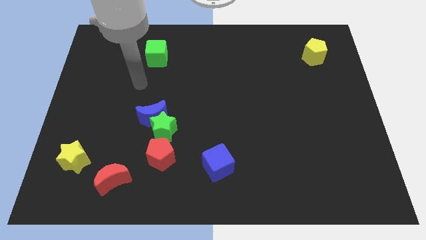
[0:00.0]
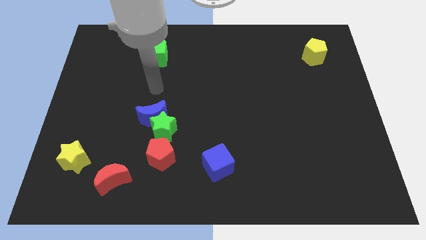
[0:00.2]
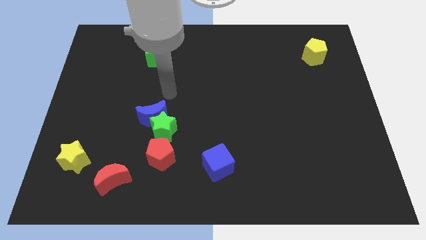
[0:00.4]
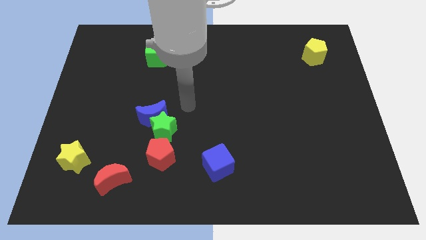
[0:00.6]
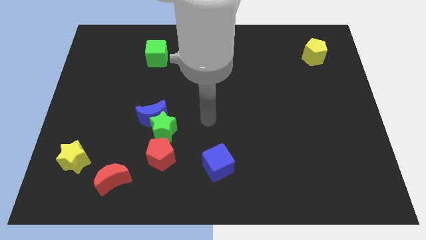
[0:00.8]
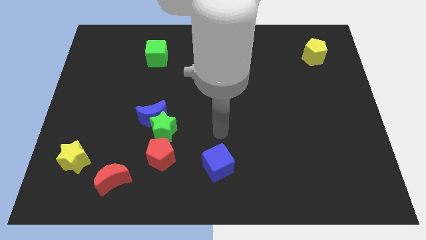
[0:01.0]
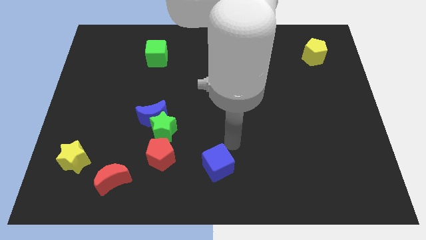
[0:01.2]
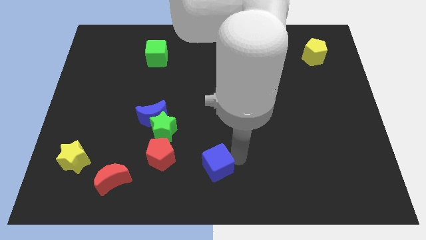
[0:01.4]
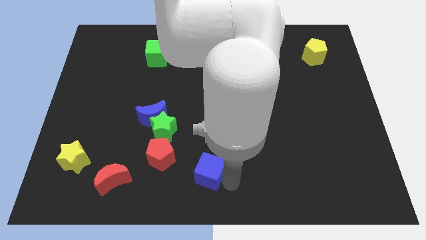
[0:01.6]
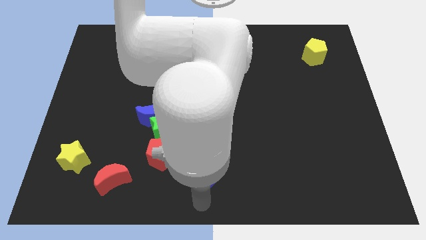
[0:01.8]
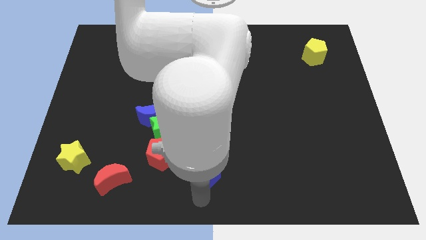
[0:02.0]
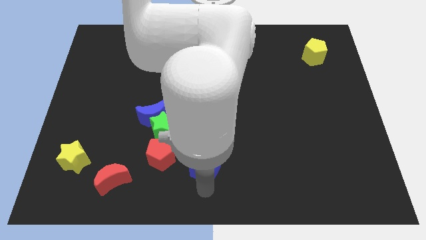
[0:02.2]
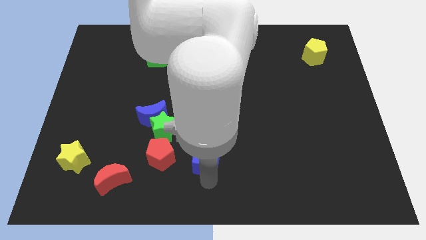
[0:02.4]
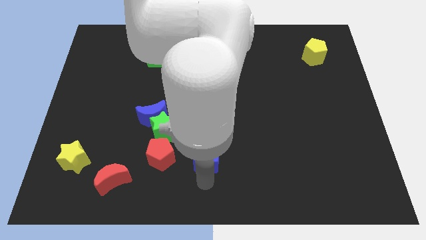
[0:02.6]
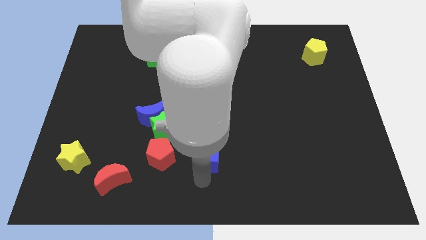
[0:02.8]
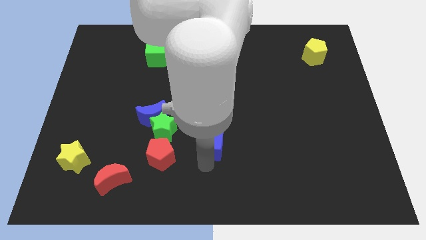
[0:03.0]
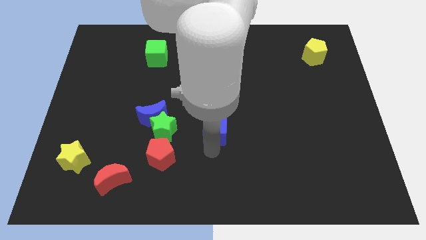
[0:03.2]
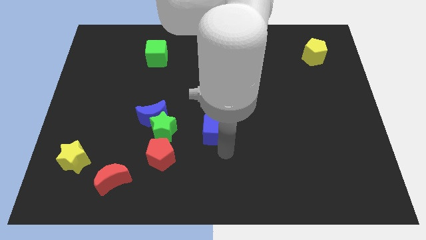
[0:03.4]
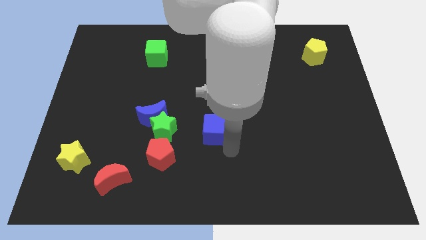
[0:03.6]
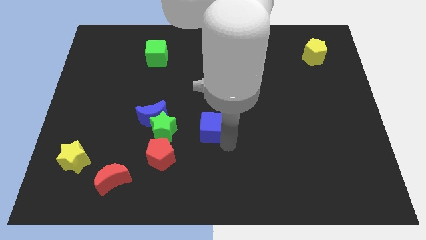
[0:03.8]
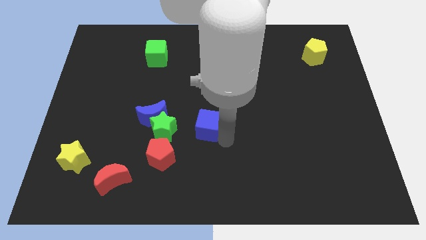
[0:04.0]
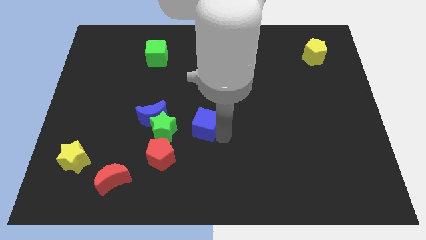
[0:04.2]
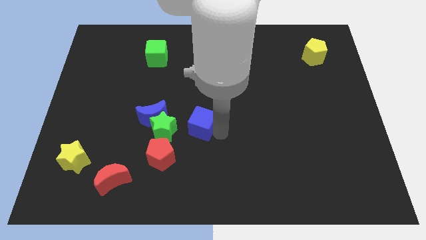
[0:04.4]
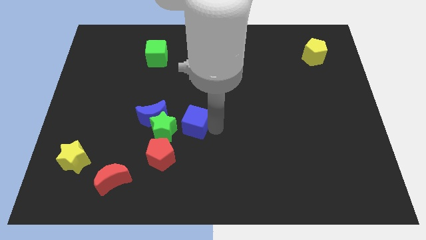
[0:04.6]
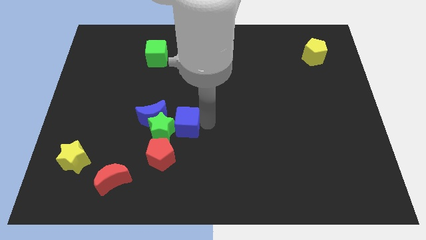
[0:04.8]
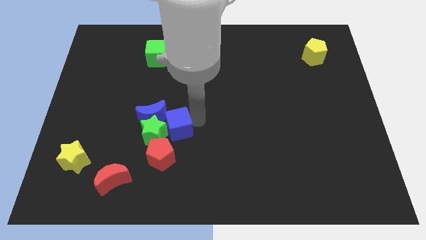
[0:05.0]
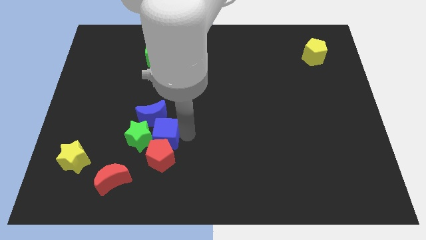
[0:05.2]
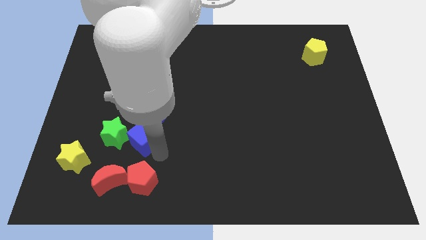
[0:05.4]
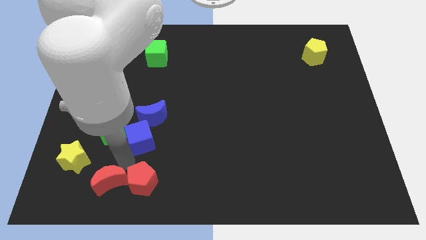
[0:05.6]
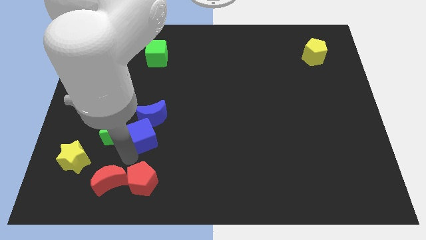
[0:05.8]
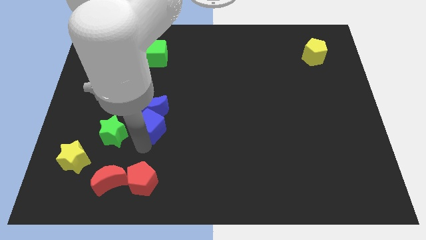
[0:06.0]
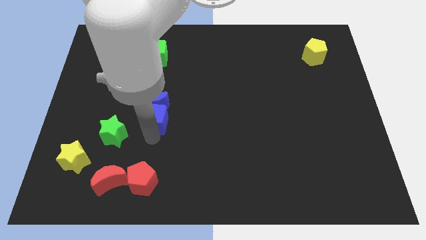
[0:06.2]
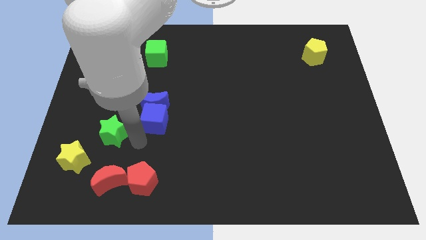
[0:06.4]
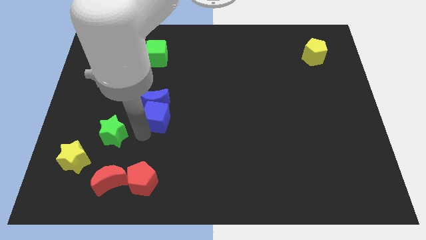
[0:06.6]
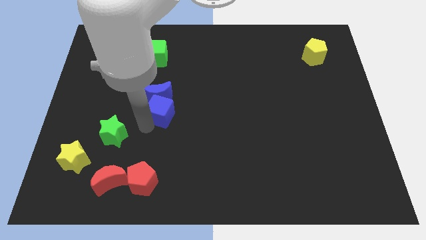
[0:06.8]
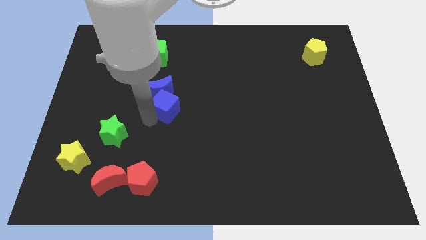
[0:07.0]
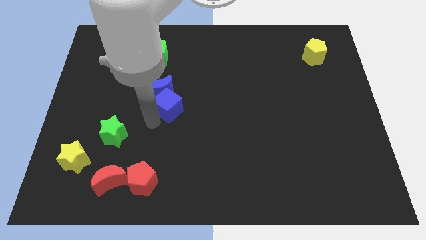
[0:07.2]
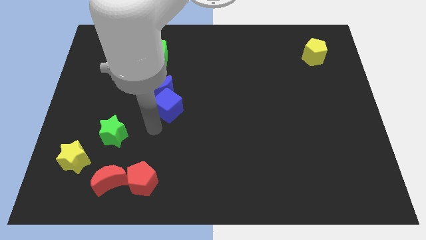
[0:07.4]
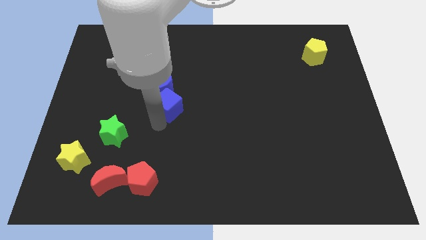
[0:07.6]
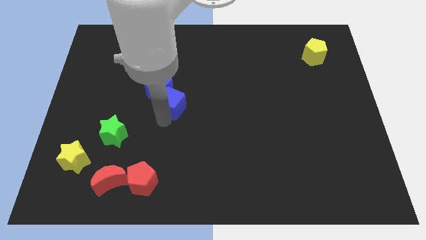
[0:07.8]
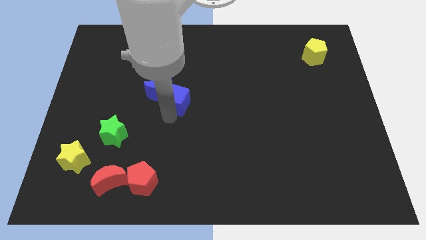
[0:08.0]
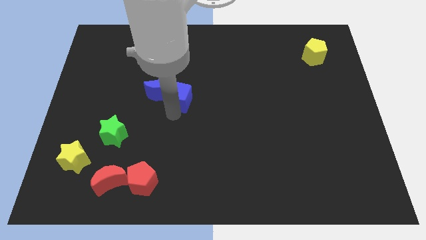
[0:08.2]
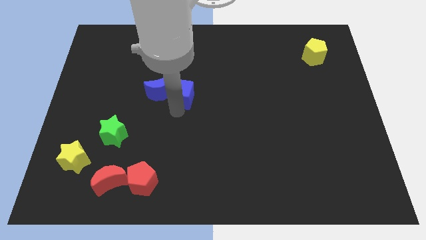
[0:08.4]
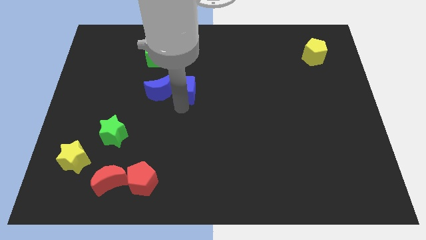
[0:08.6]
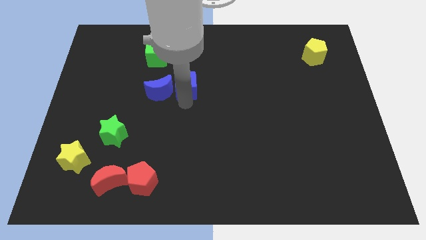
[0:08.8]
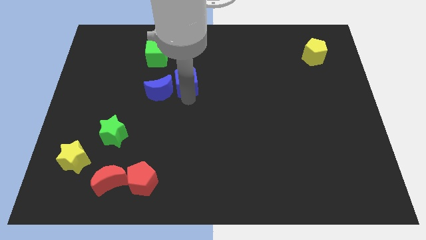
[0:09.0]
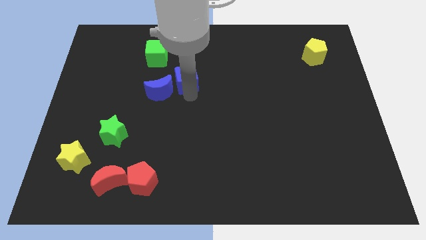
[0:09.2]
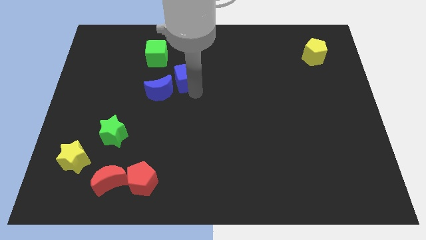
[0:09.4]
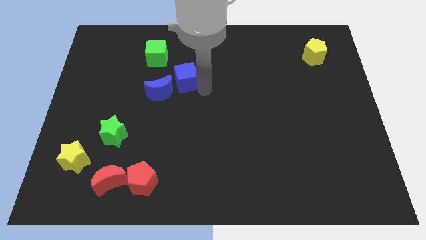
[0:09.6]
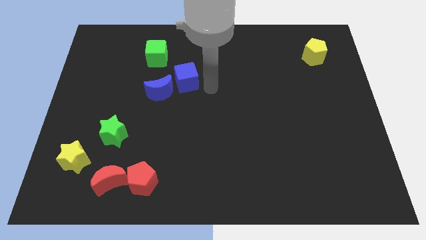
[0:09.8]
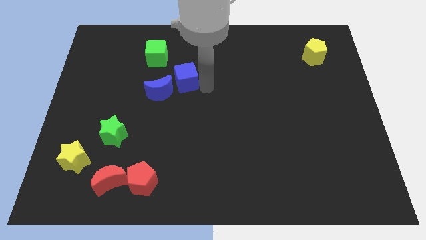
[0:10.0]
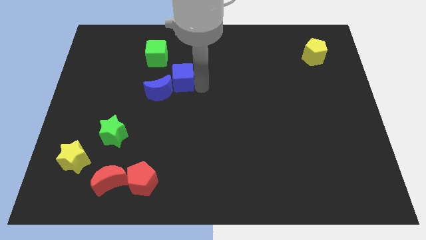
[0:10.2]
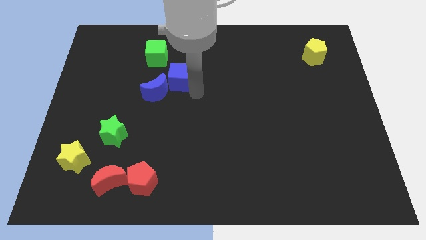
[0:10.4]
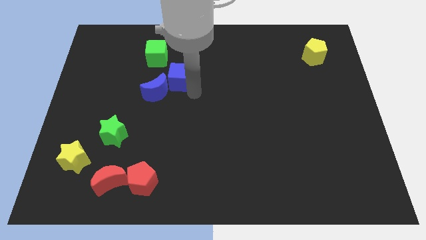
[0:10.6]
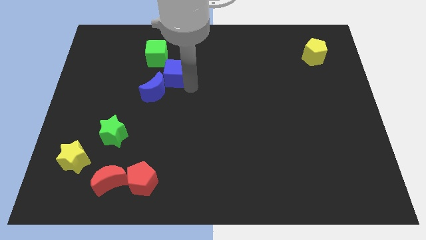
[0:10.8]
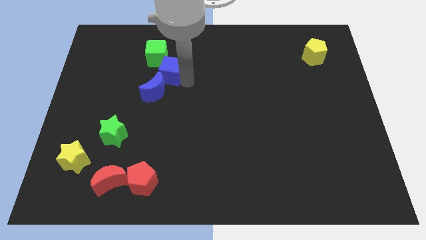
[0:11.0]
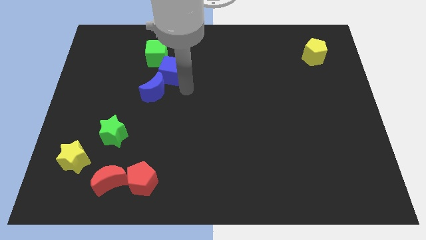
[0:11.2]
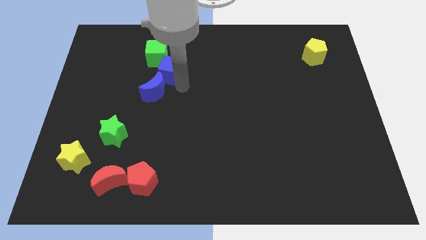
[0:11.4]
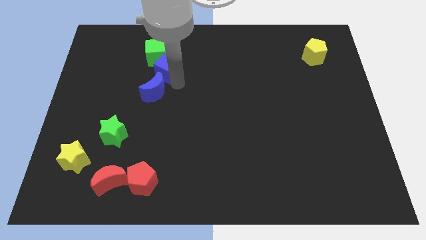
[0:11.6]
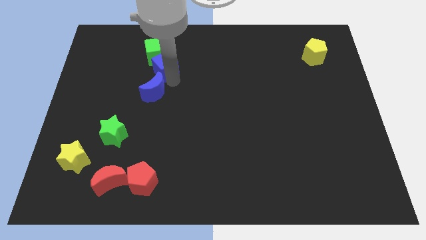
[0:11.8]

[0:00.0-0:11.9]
put the blue cube to the green cube

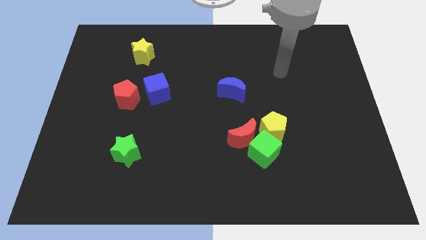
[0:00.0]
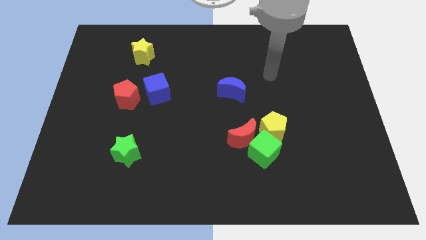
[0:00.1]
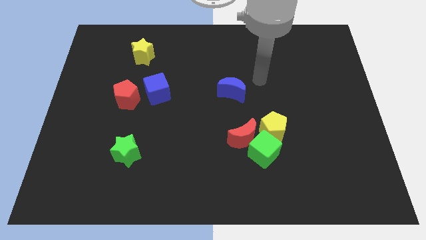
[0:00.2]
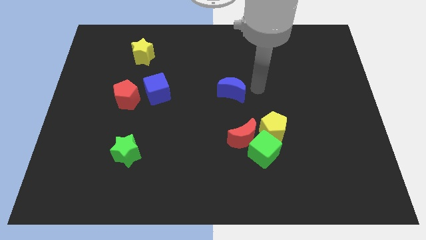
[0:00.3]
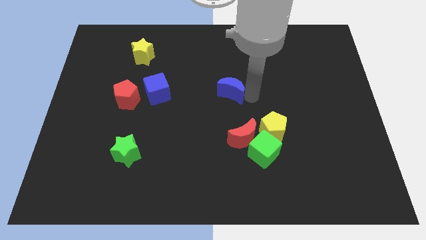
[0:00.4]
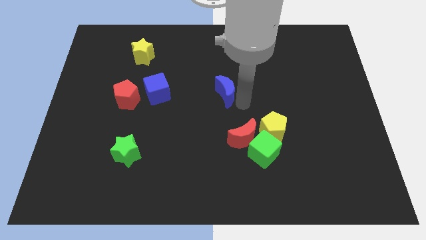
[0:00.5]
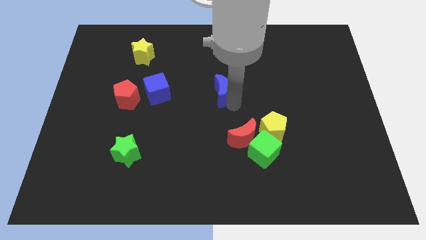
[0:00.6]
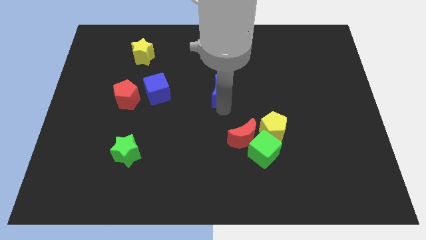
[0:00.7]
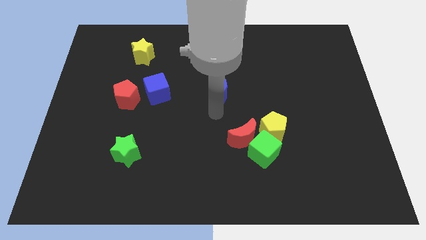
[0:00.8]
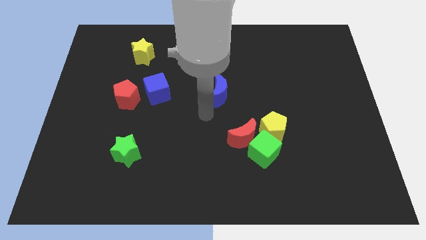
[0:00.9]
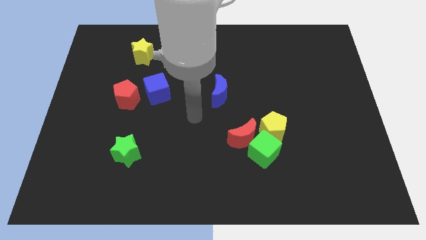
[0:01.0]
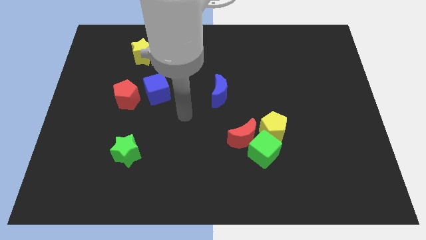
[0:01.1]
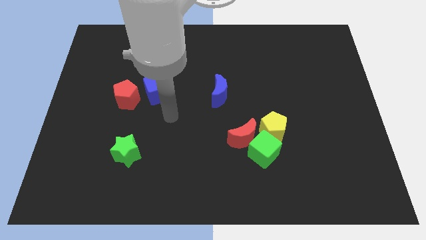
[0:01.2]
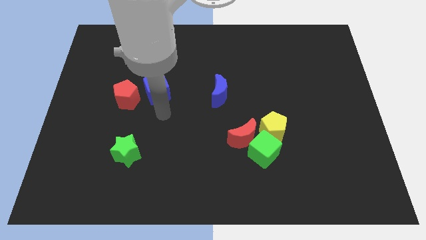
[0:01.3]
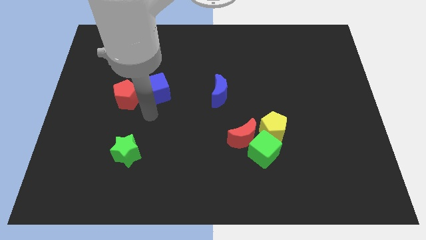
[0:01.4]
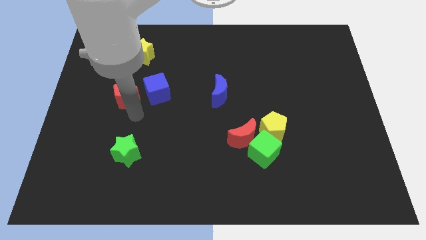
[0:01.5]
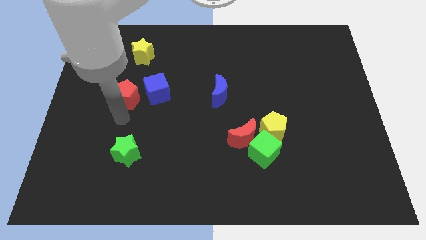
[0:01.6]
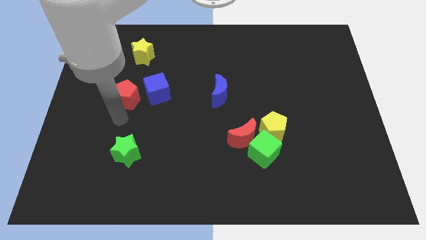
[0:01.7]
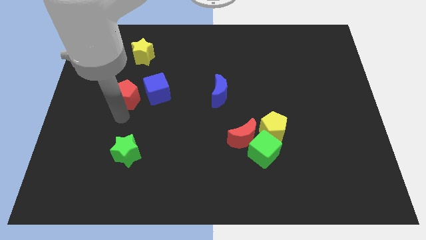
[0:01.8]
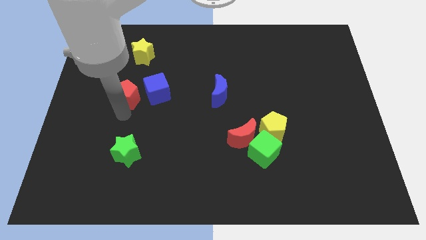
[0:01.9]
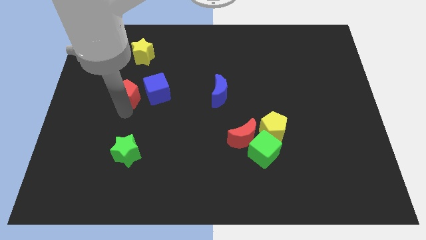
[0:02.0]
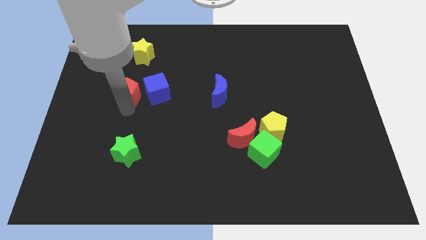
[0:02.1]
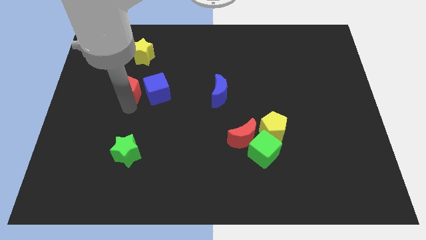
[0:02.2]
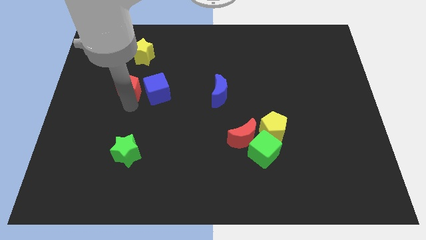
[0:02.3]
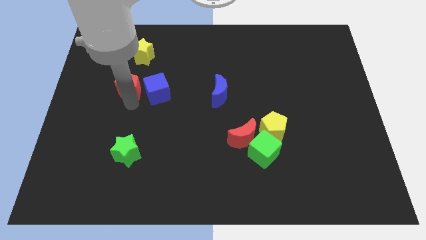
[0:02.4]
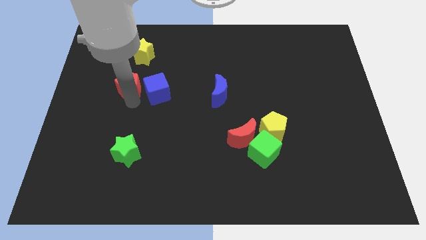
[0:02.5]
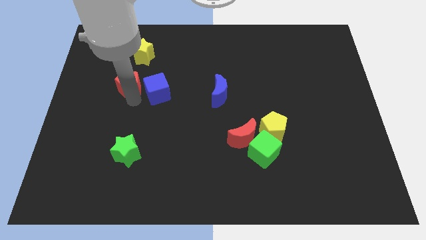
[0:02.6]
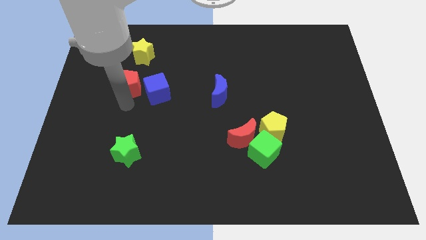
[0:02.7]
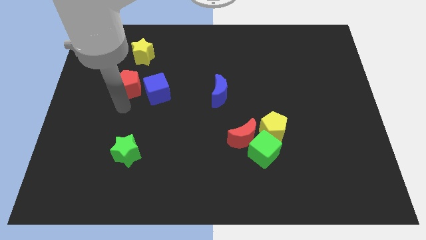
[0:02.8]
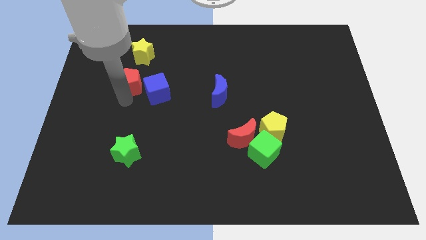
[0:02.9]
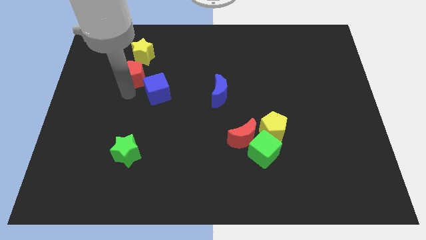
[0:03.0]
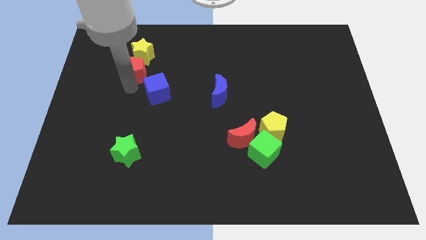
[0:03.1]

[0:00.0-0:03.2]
put the red pentagon next to the yellow star
